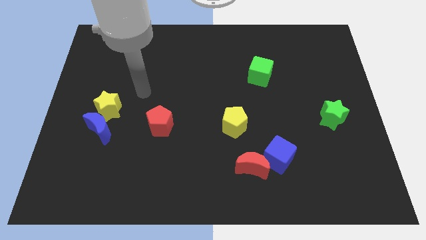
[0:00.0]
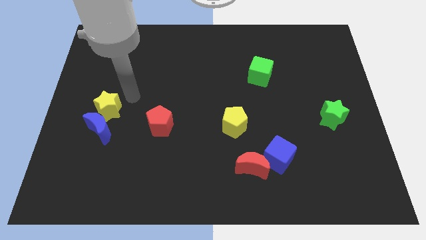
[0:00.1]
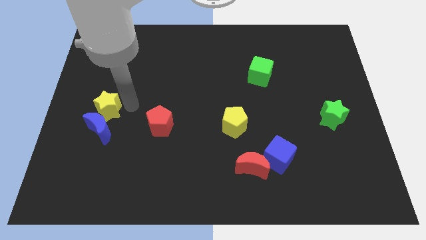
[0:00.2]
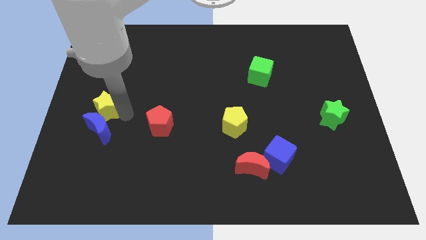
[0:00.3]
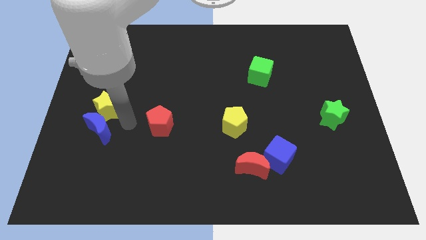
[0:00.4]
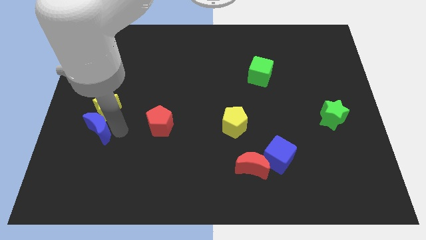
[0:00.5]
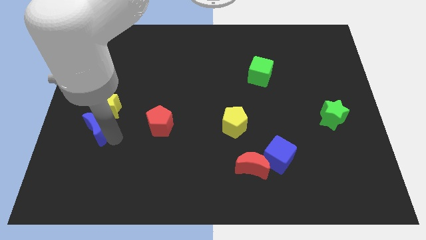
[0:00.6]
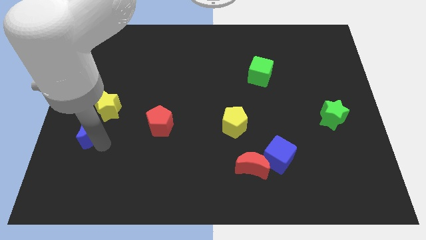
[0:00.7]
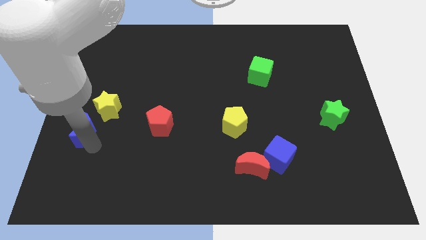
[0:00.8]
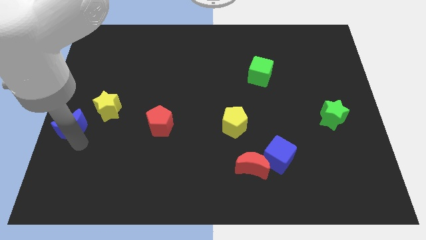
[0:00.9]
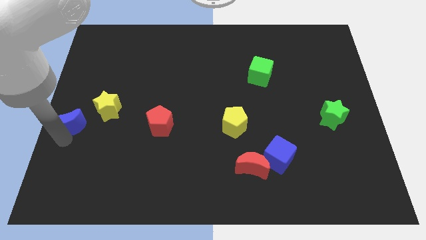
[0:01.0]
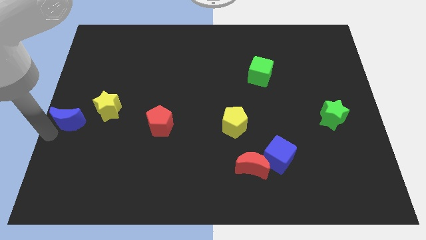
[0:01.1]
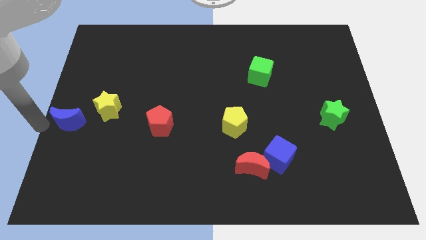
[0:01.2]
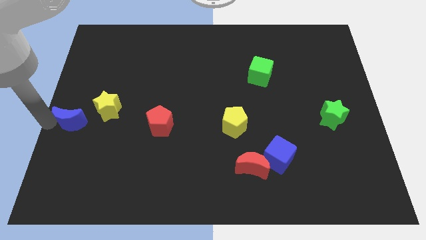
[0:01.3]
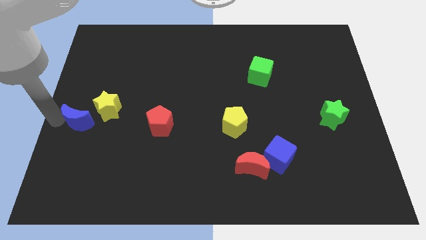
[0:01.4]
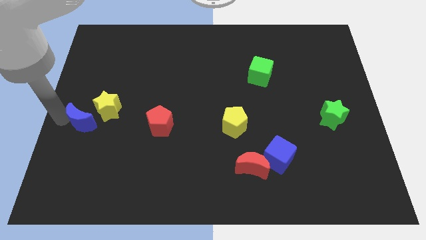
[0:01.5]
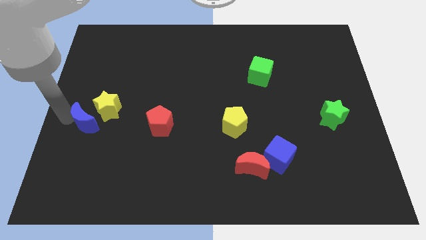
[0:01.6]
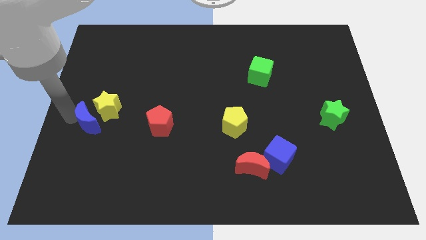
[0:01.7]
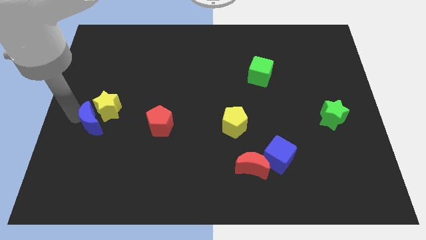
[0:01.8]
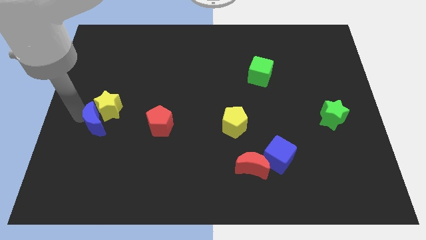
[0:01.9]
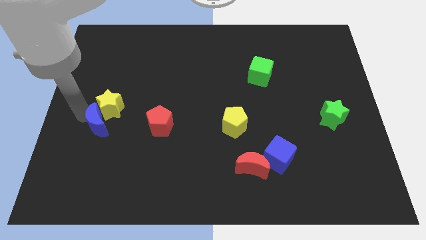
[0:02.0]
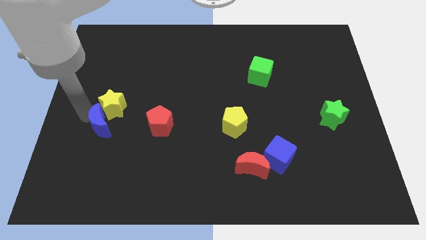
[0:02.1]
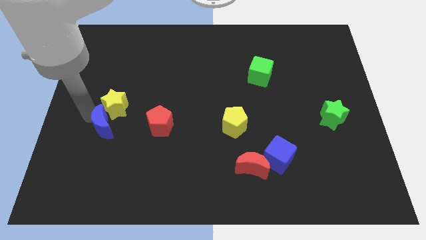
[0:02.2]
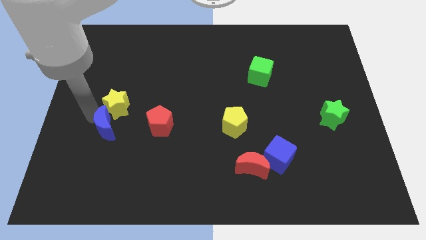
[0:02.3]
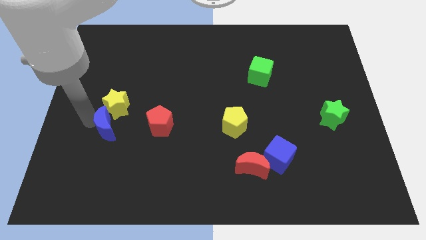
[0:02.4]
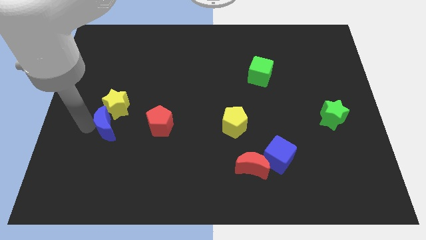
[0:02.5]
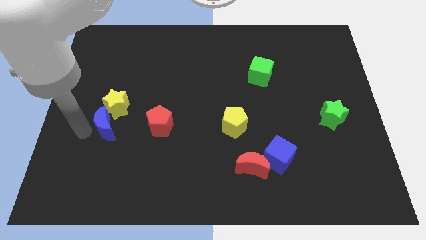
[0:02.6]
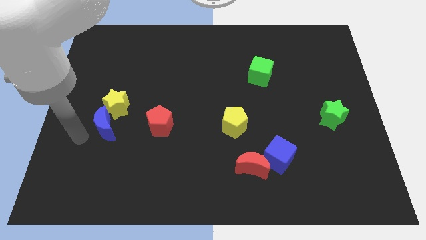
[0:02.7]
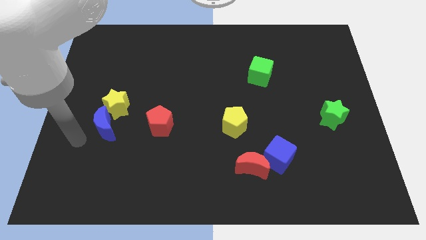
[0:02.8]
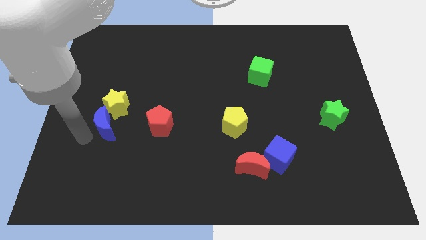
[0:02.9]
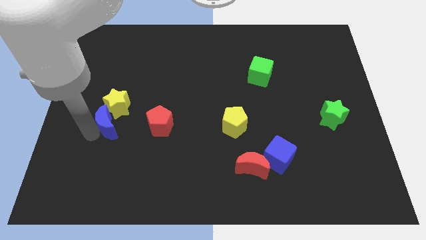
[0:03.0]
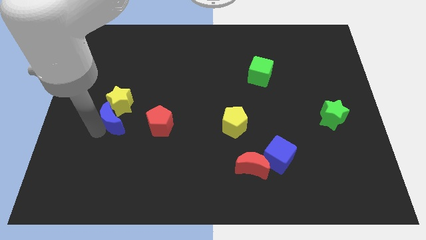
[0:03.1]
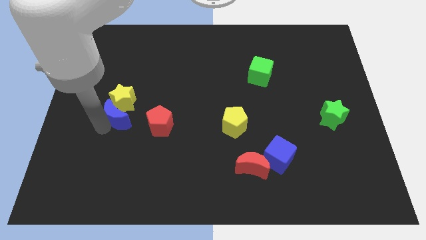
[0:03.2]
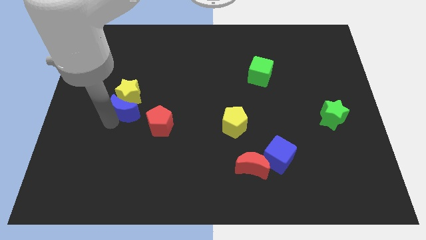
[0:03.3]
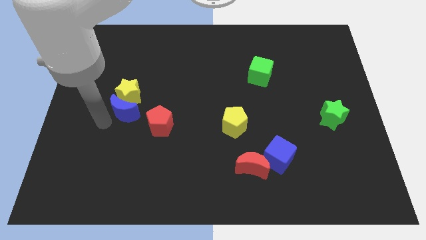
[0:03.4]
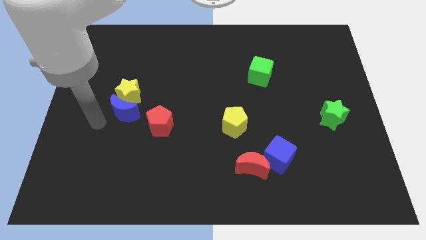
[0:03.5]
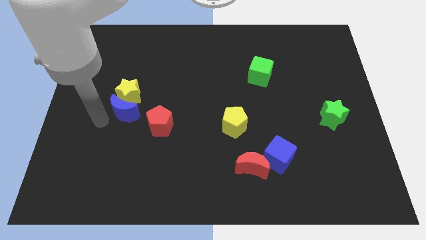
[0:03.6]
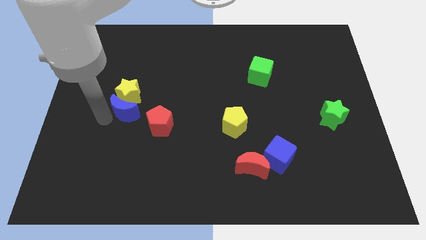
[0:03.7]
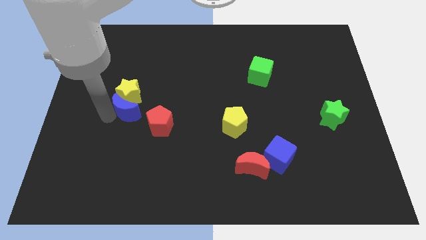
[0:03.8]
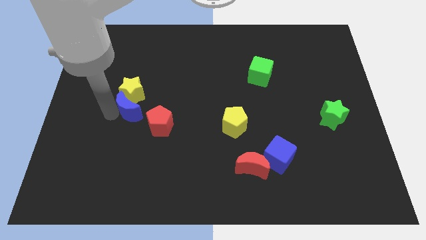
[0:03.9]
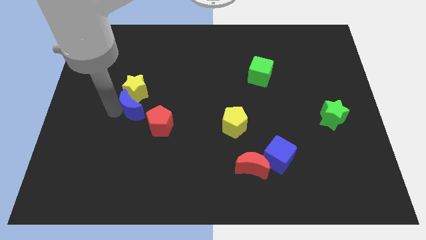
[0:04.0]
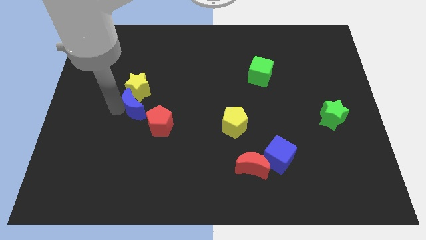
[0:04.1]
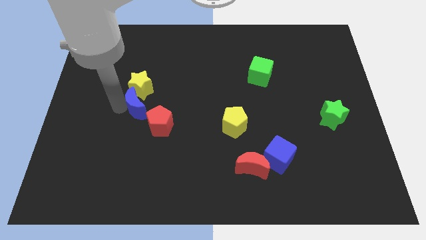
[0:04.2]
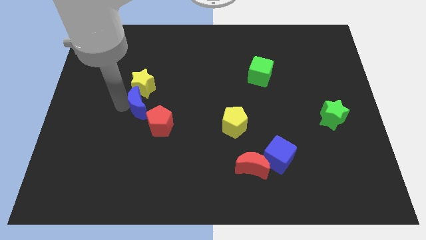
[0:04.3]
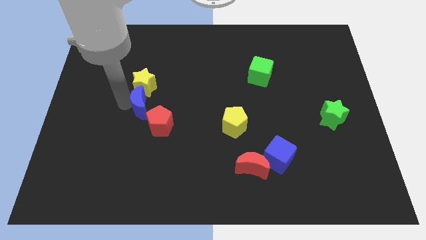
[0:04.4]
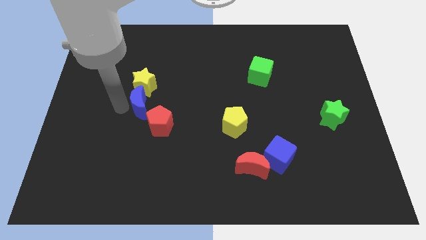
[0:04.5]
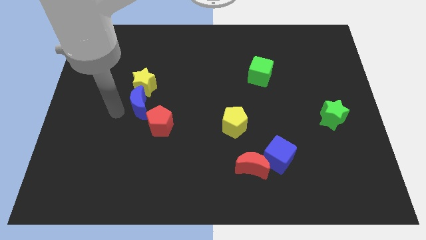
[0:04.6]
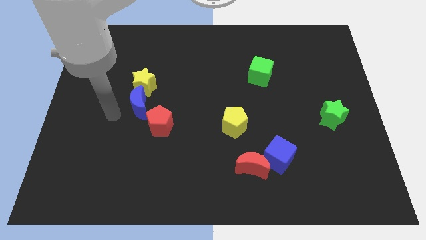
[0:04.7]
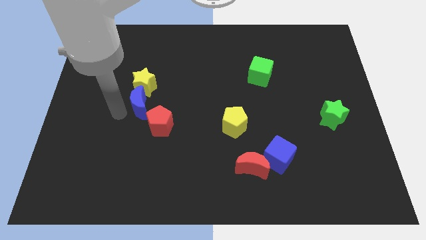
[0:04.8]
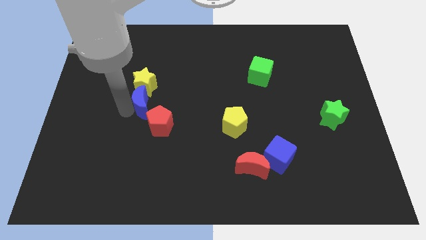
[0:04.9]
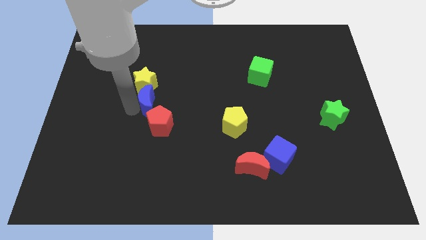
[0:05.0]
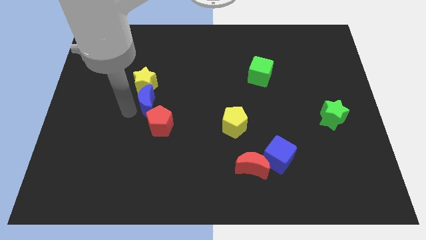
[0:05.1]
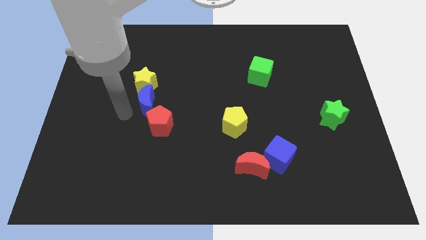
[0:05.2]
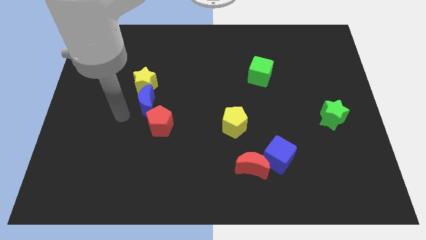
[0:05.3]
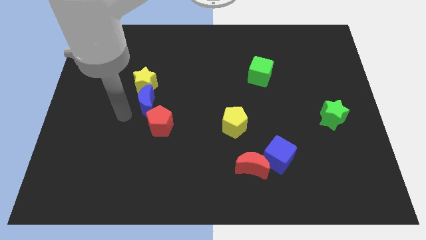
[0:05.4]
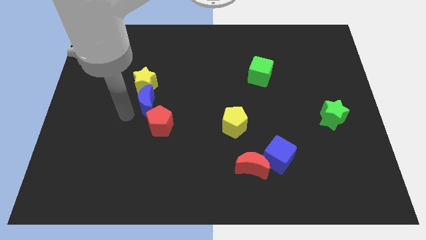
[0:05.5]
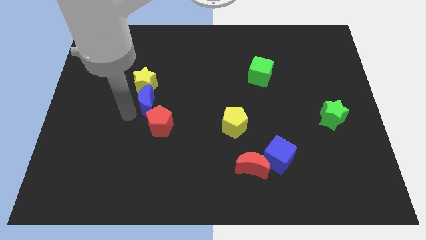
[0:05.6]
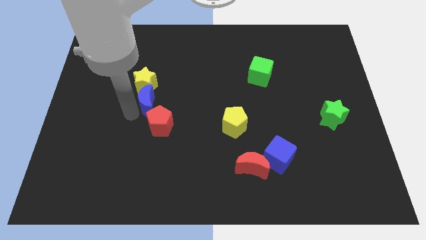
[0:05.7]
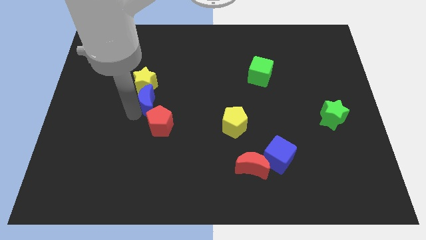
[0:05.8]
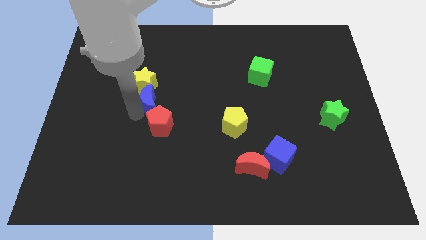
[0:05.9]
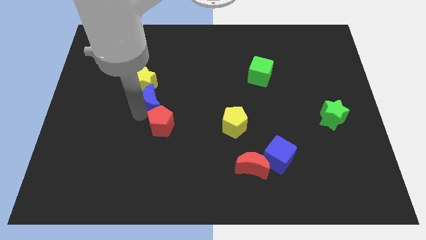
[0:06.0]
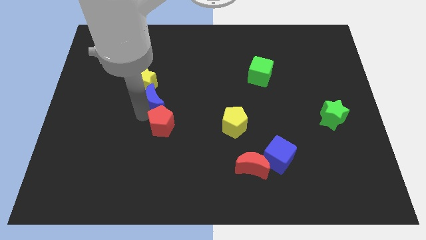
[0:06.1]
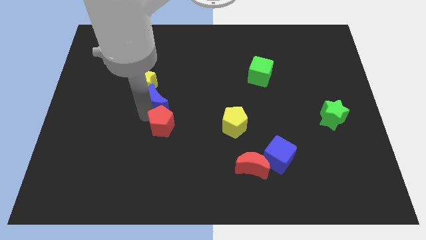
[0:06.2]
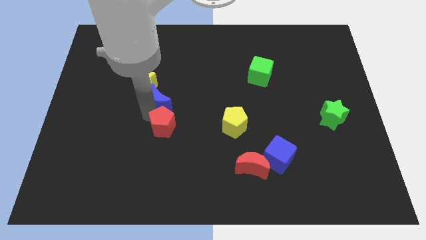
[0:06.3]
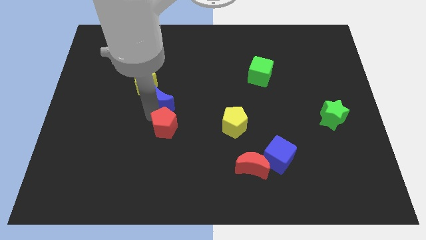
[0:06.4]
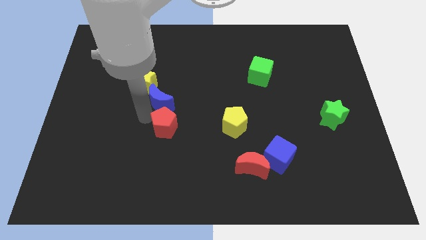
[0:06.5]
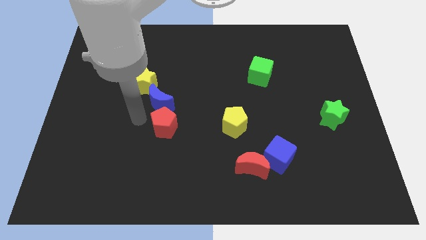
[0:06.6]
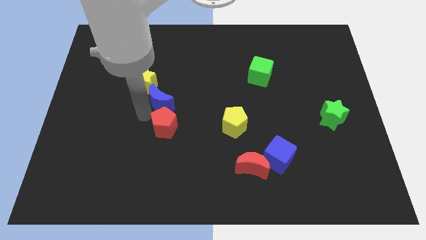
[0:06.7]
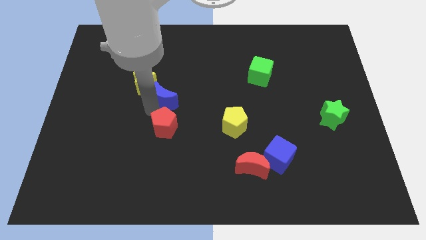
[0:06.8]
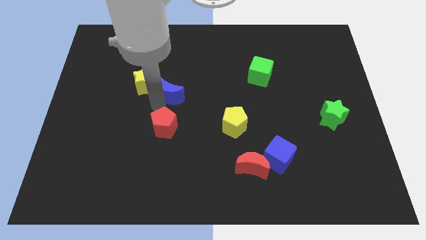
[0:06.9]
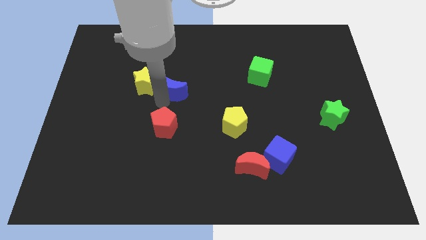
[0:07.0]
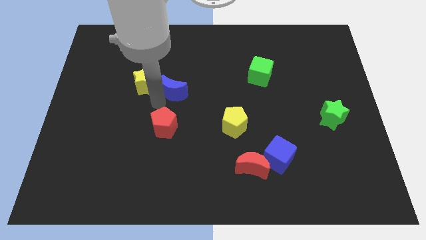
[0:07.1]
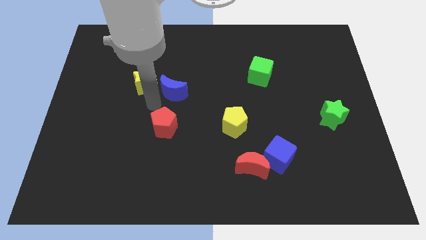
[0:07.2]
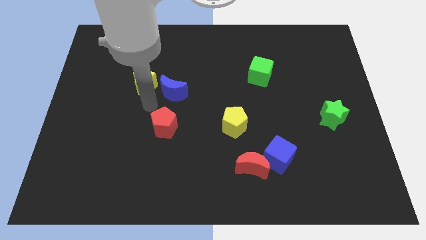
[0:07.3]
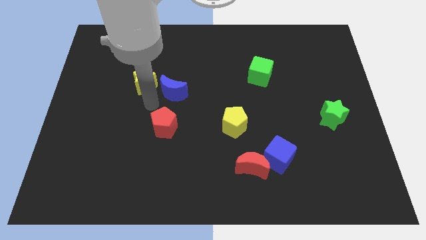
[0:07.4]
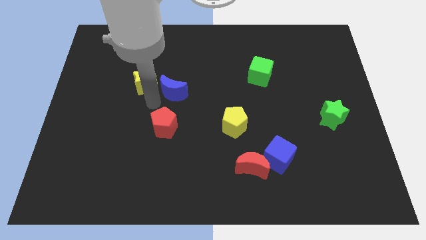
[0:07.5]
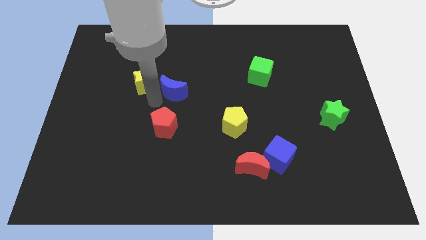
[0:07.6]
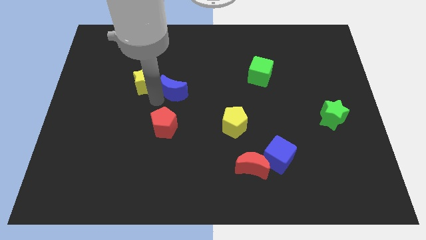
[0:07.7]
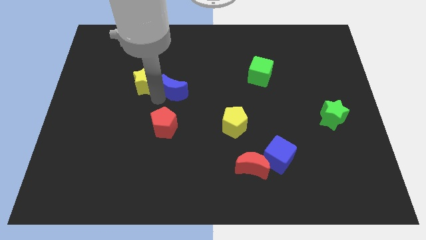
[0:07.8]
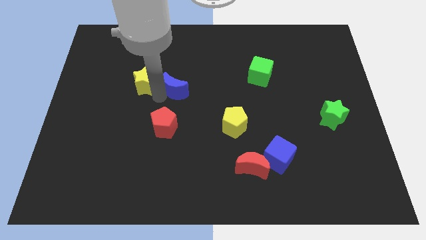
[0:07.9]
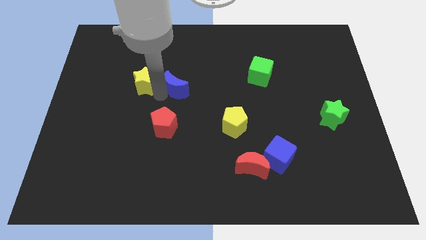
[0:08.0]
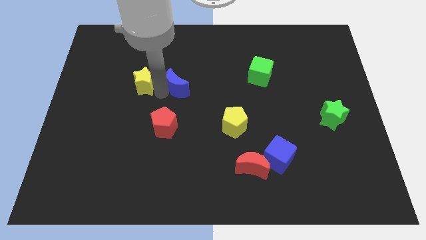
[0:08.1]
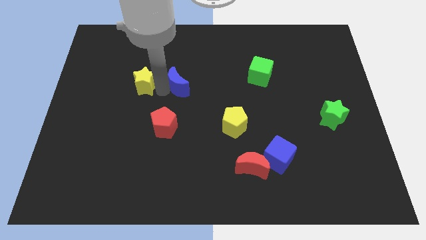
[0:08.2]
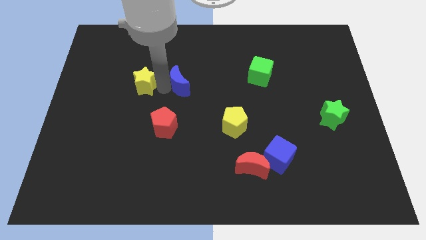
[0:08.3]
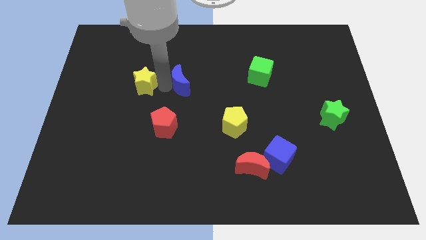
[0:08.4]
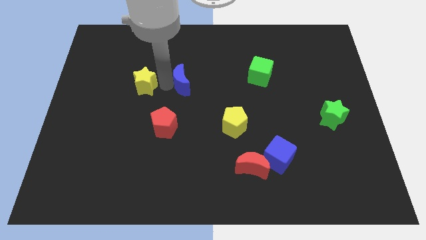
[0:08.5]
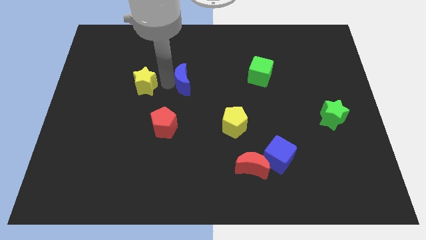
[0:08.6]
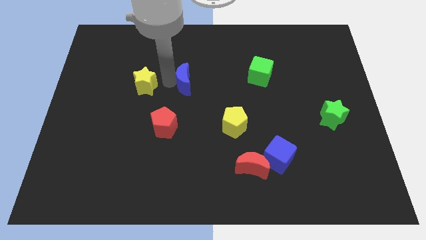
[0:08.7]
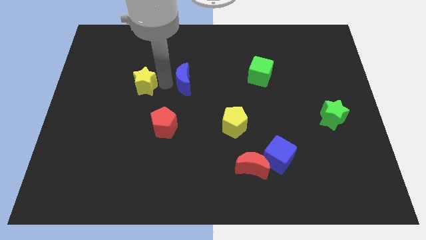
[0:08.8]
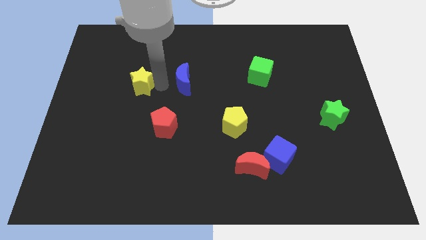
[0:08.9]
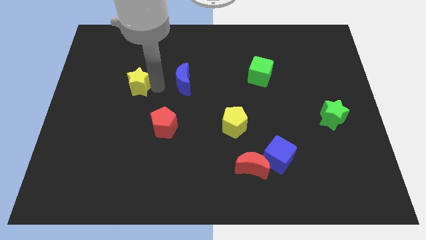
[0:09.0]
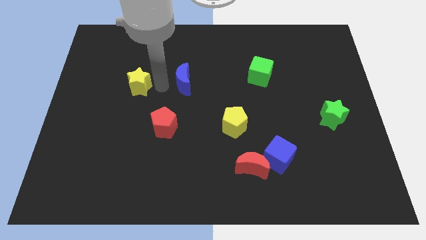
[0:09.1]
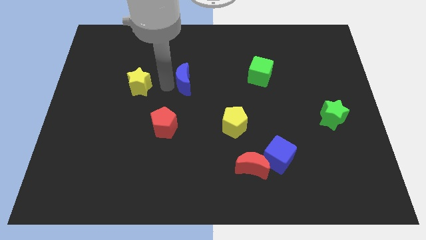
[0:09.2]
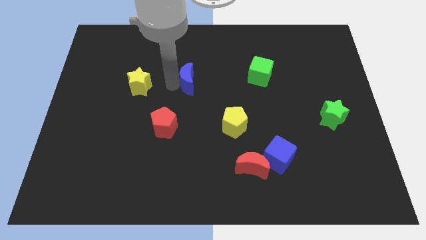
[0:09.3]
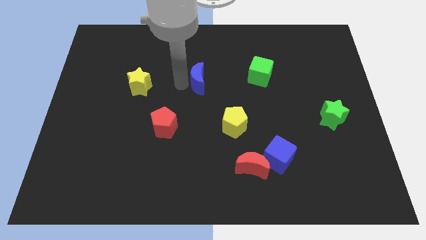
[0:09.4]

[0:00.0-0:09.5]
put the blue moon to the left side of the green cube
